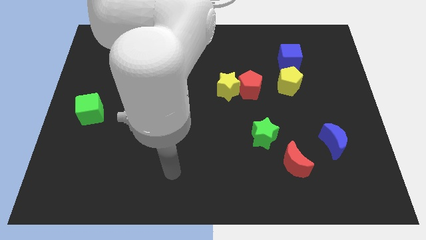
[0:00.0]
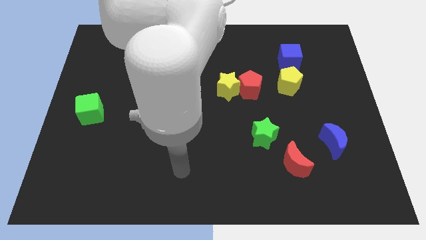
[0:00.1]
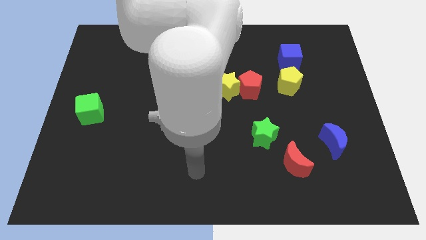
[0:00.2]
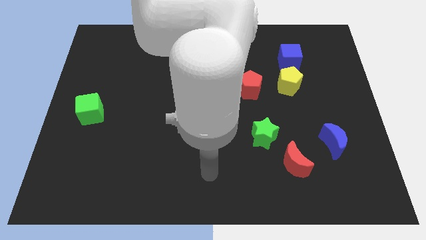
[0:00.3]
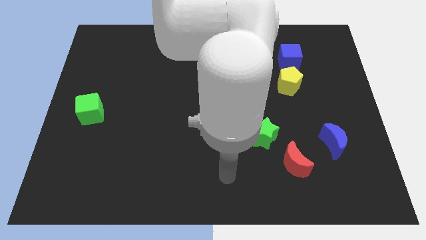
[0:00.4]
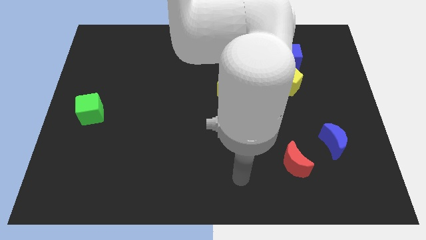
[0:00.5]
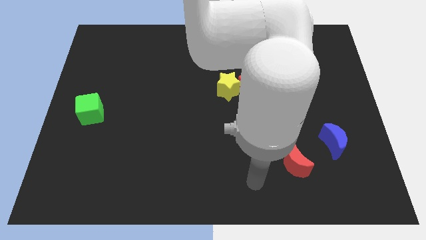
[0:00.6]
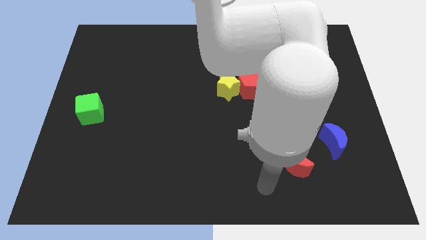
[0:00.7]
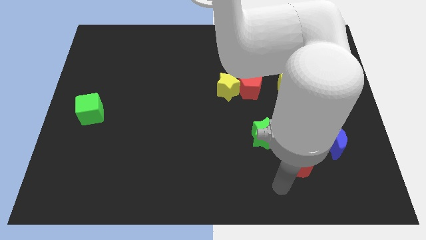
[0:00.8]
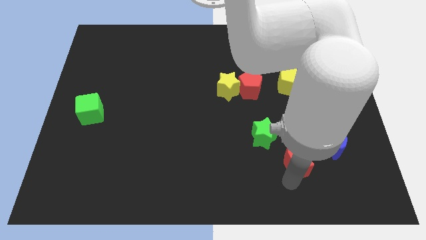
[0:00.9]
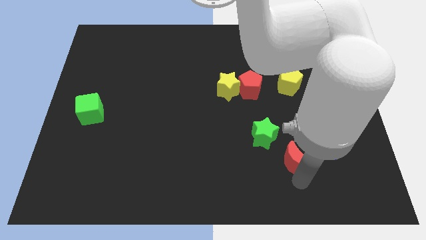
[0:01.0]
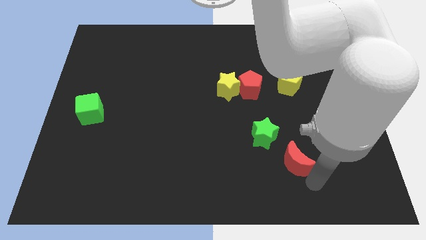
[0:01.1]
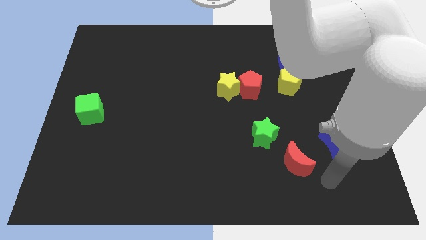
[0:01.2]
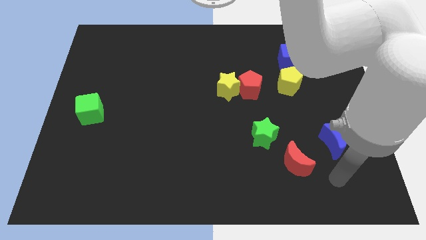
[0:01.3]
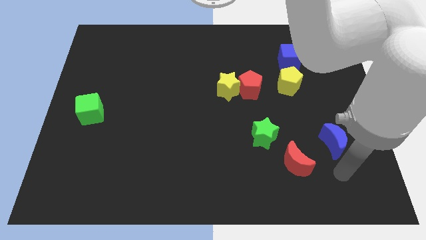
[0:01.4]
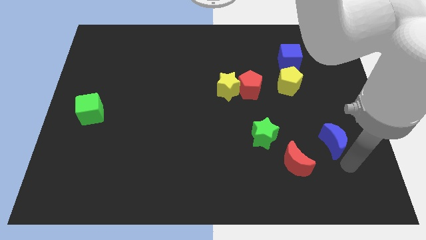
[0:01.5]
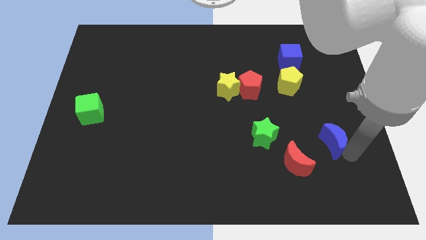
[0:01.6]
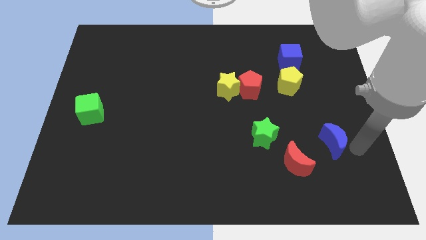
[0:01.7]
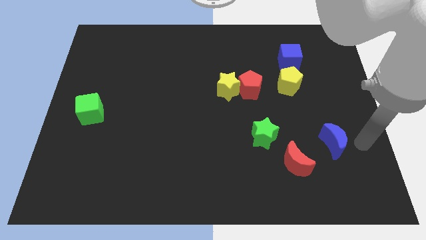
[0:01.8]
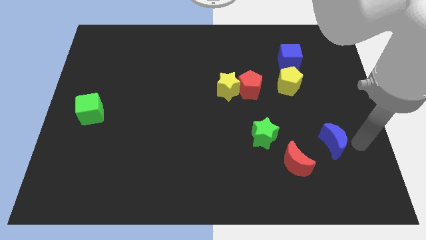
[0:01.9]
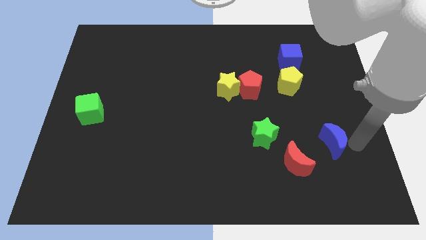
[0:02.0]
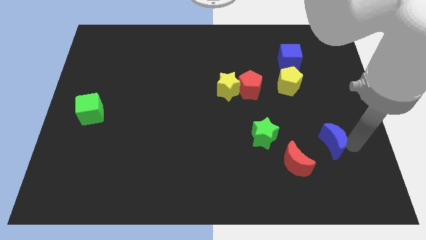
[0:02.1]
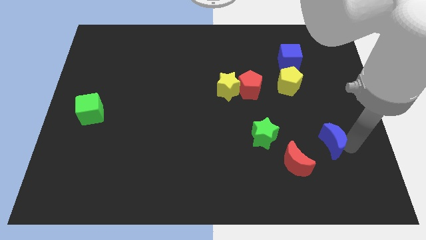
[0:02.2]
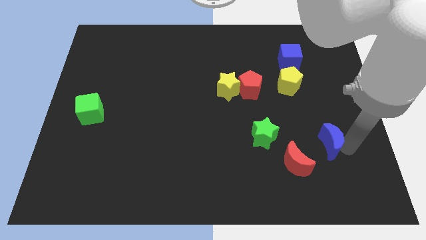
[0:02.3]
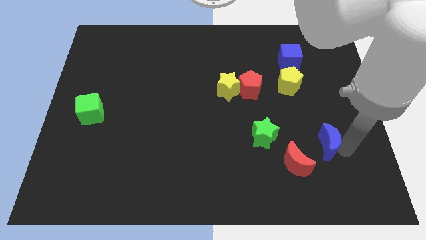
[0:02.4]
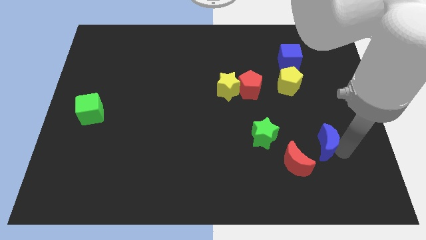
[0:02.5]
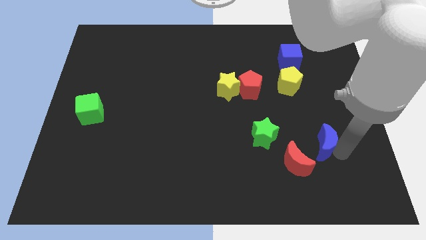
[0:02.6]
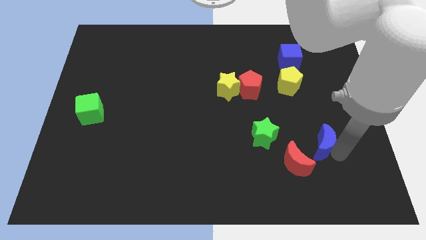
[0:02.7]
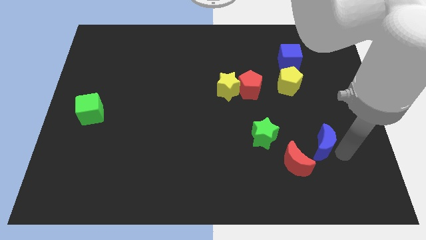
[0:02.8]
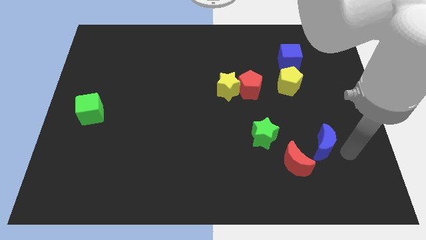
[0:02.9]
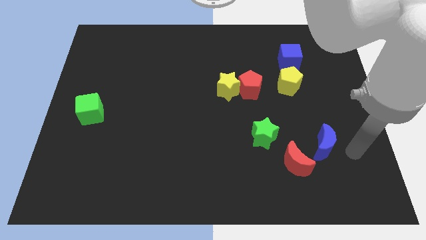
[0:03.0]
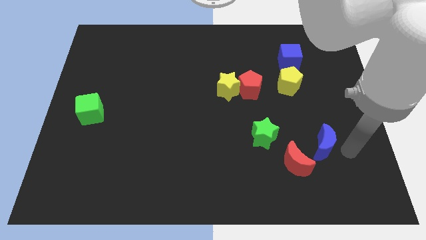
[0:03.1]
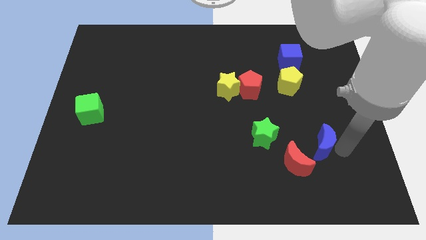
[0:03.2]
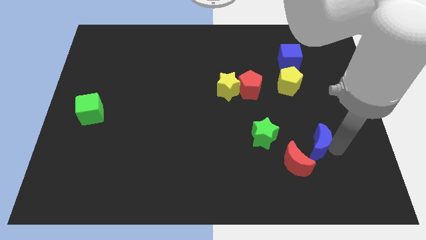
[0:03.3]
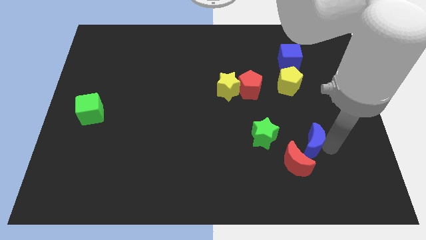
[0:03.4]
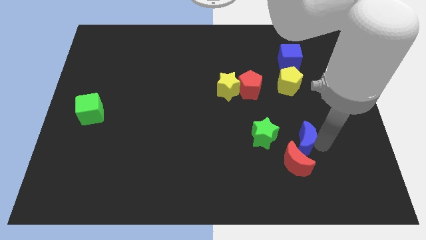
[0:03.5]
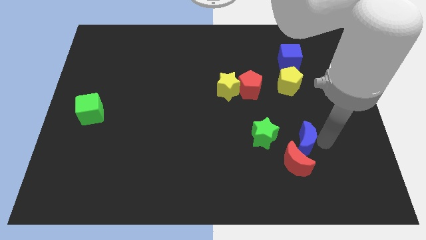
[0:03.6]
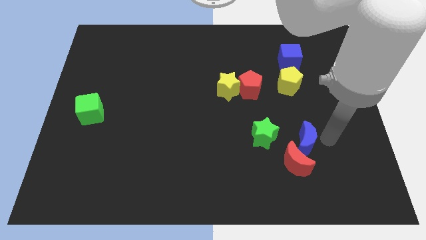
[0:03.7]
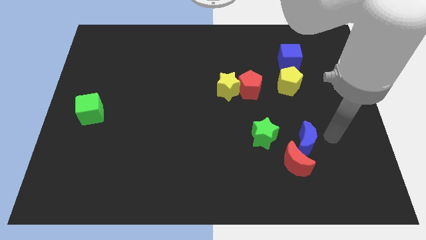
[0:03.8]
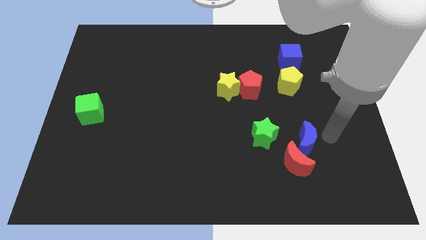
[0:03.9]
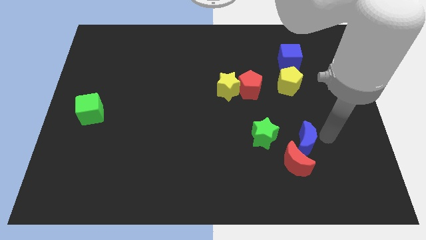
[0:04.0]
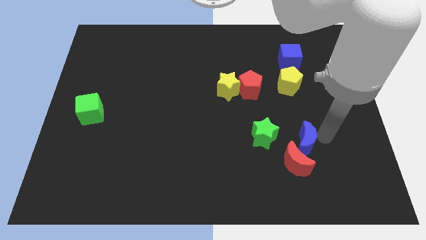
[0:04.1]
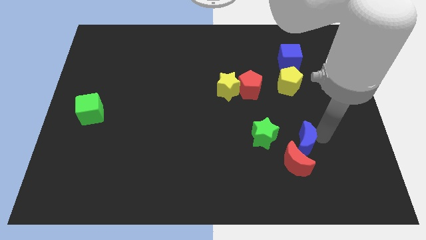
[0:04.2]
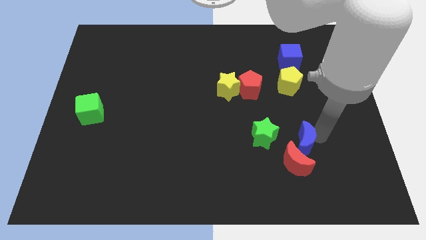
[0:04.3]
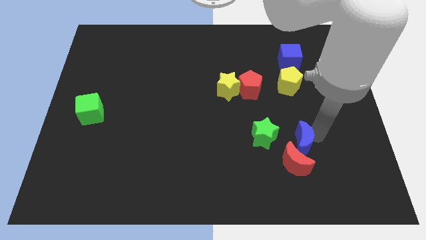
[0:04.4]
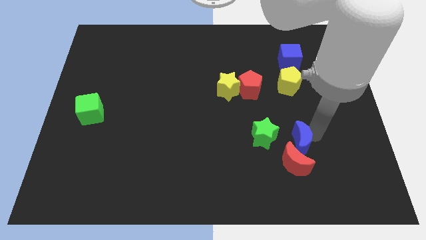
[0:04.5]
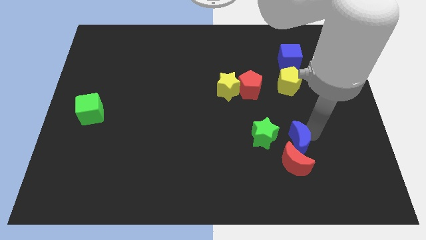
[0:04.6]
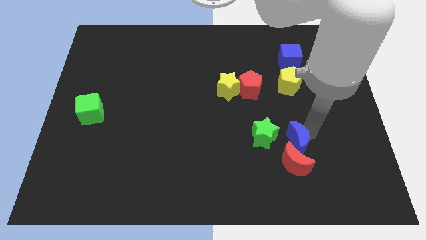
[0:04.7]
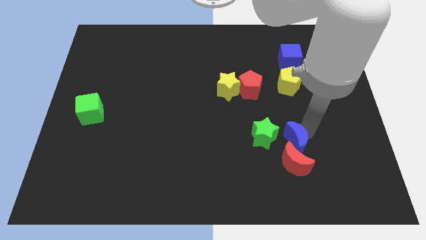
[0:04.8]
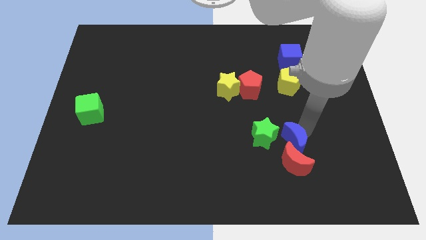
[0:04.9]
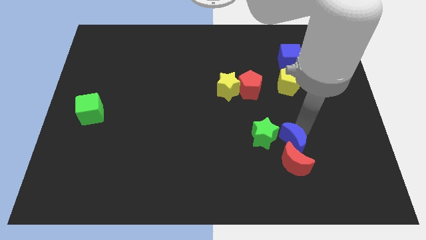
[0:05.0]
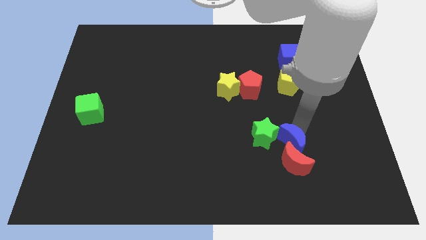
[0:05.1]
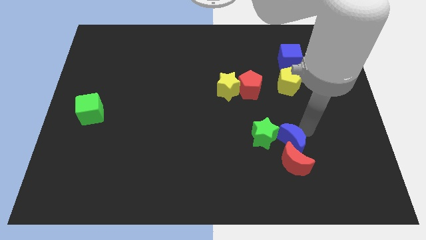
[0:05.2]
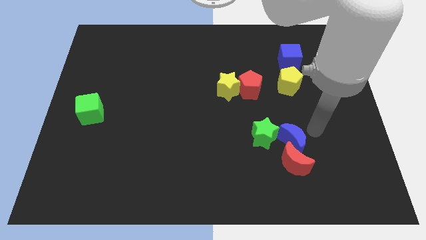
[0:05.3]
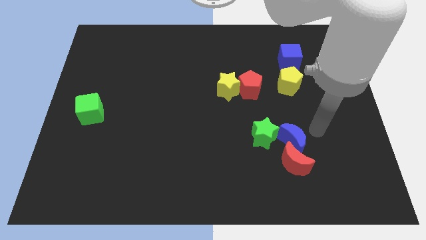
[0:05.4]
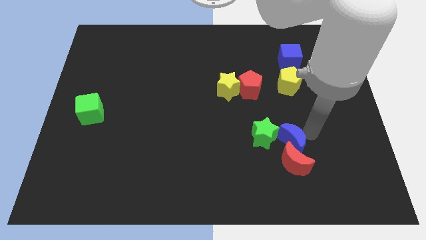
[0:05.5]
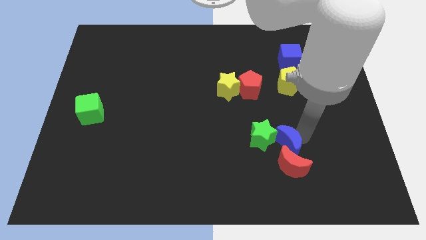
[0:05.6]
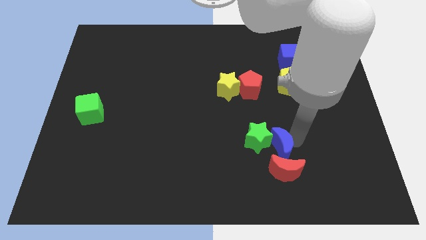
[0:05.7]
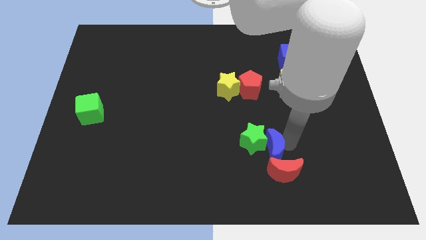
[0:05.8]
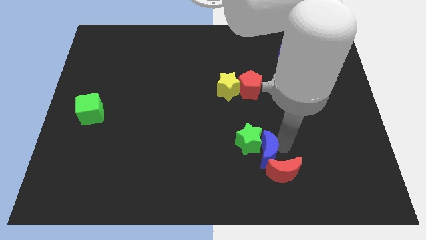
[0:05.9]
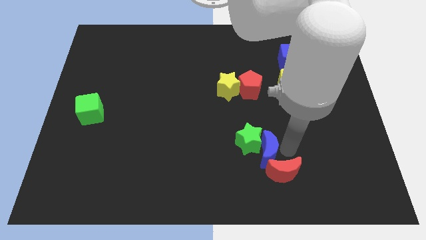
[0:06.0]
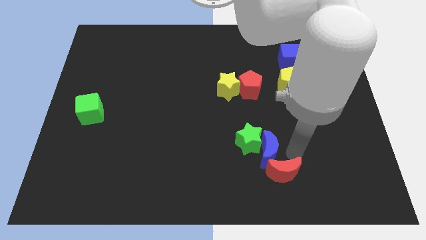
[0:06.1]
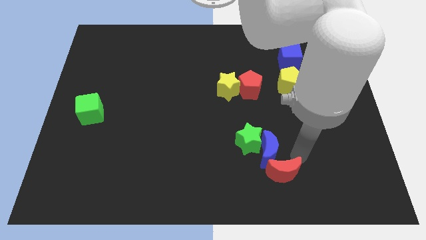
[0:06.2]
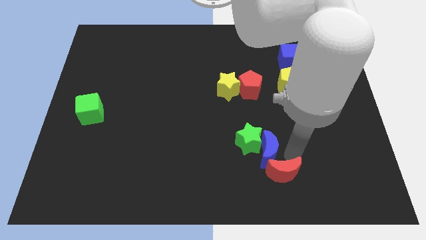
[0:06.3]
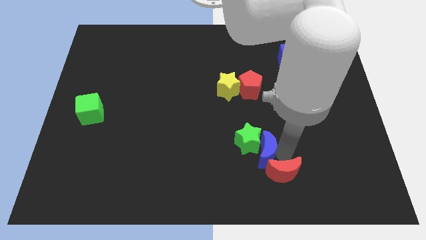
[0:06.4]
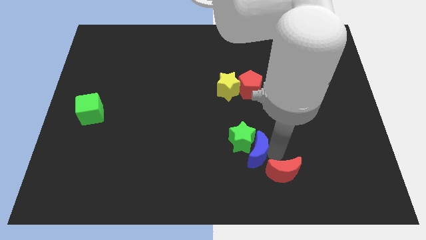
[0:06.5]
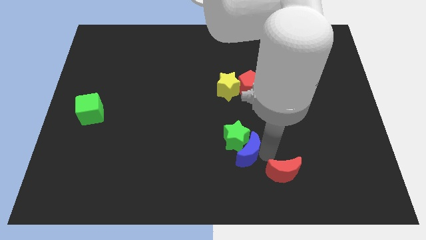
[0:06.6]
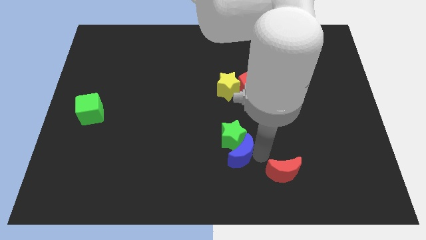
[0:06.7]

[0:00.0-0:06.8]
move the blue moon left

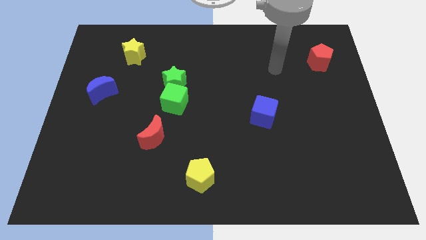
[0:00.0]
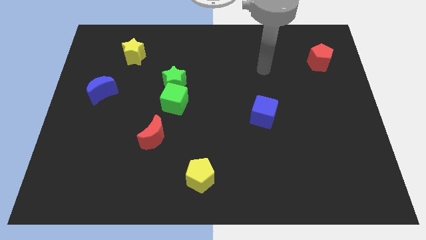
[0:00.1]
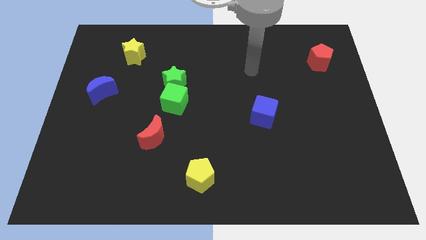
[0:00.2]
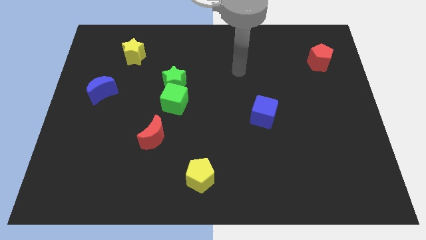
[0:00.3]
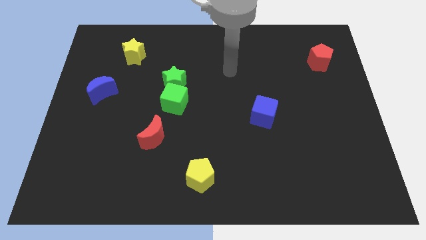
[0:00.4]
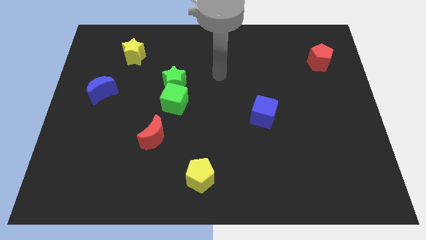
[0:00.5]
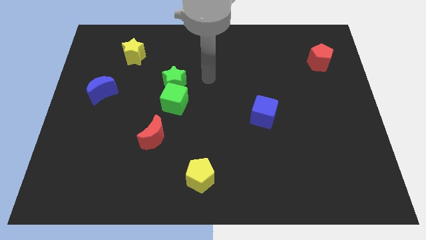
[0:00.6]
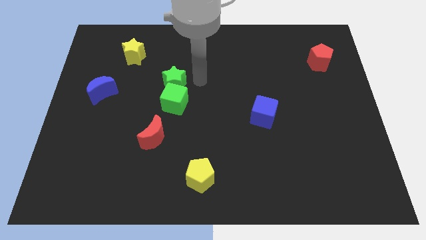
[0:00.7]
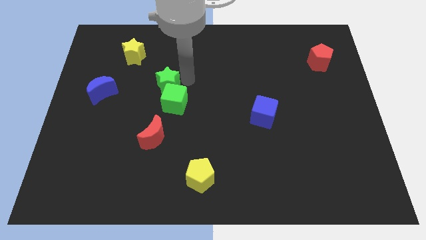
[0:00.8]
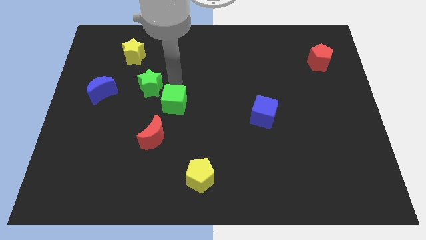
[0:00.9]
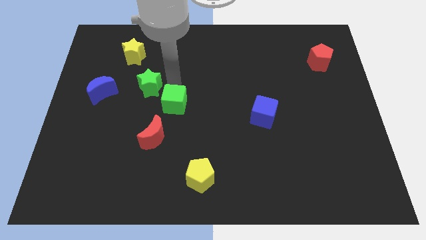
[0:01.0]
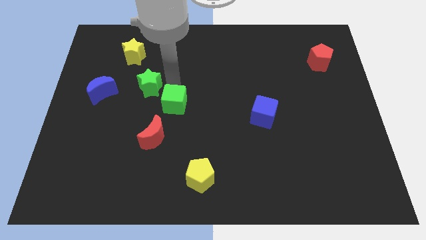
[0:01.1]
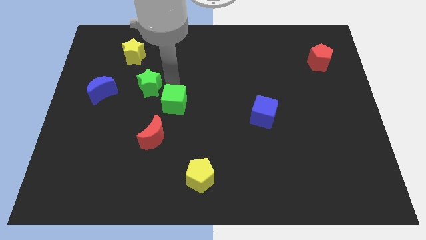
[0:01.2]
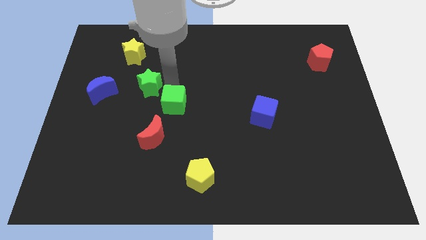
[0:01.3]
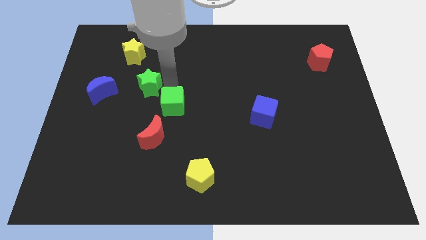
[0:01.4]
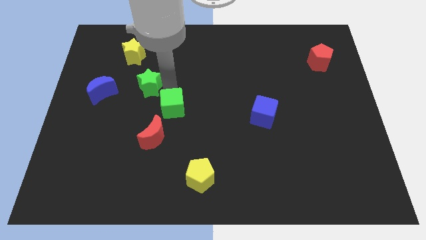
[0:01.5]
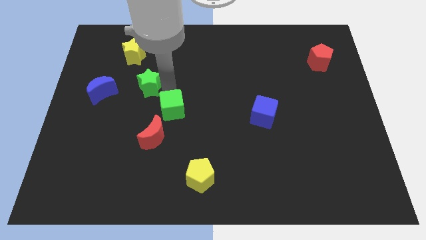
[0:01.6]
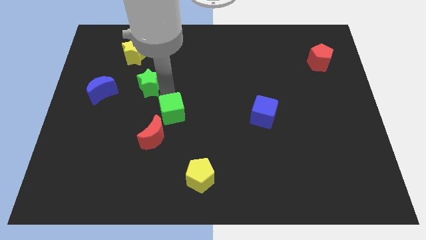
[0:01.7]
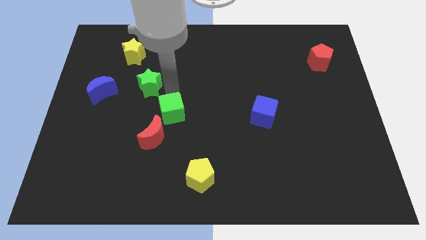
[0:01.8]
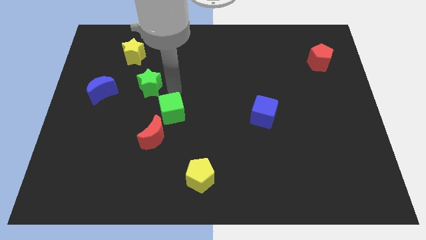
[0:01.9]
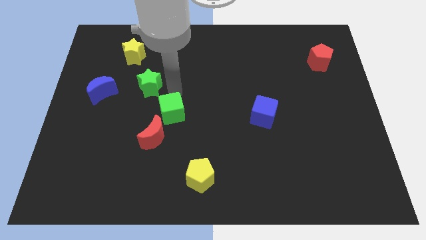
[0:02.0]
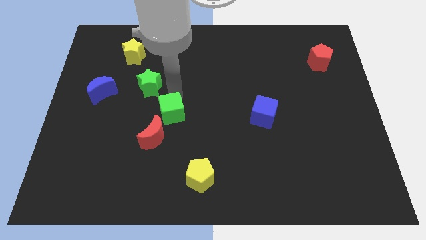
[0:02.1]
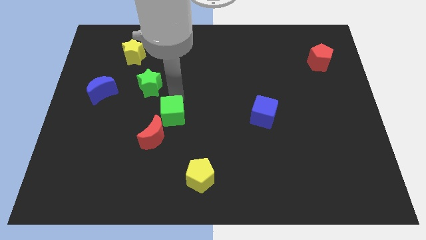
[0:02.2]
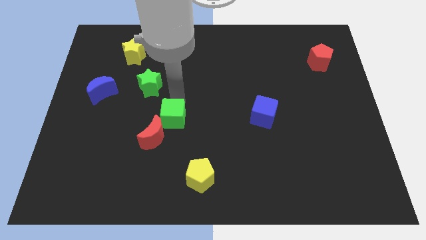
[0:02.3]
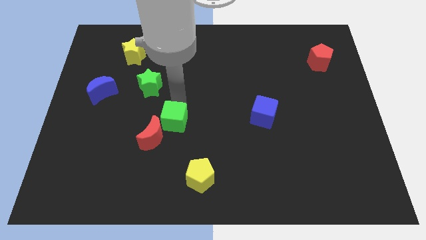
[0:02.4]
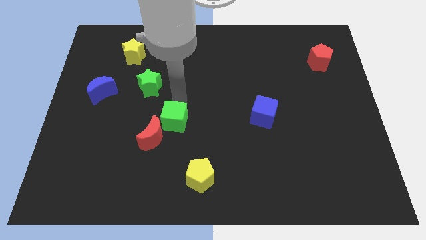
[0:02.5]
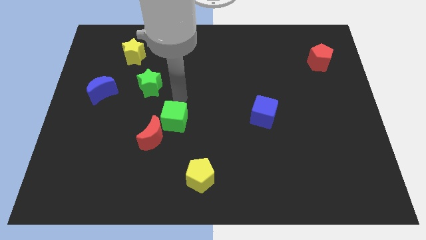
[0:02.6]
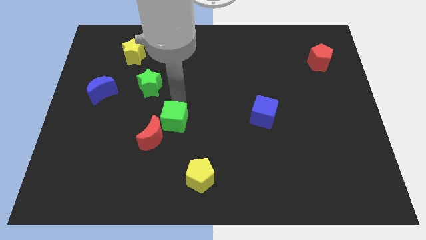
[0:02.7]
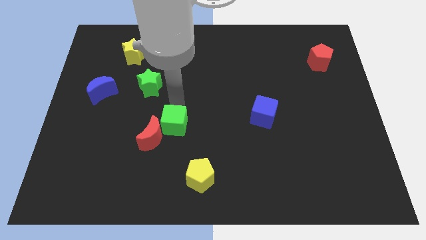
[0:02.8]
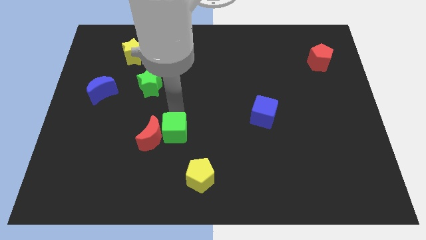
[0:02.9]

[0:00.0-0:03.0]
push the green cube a little down
